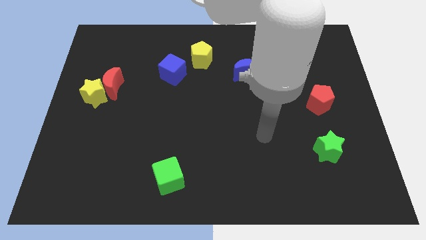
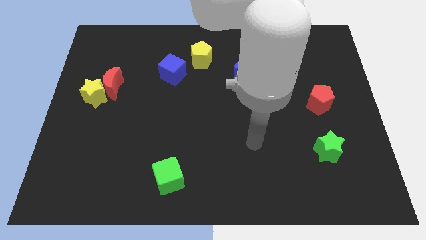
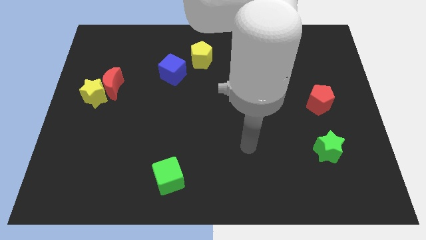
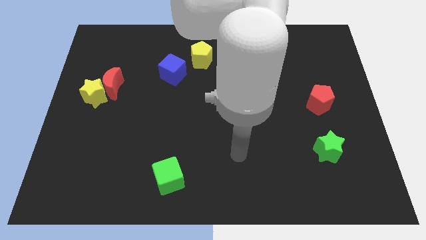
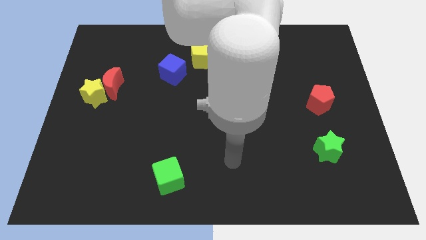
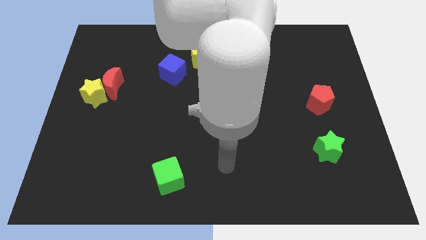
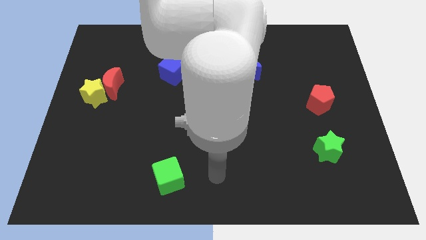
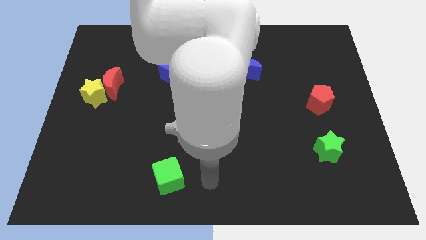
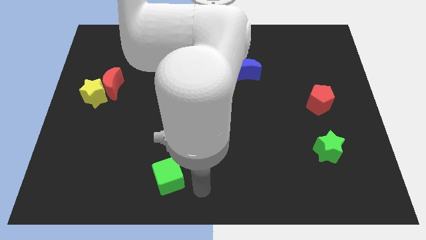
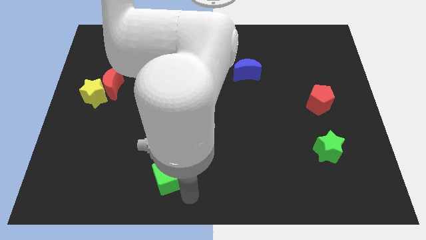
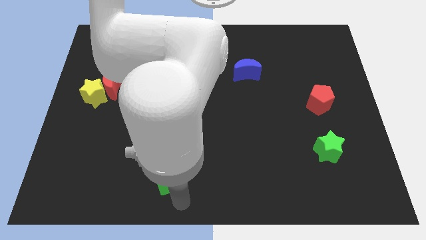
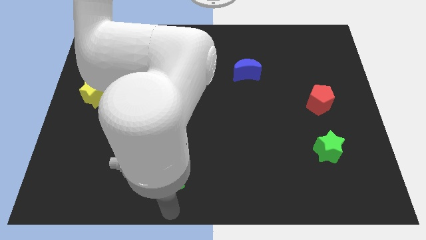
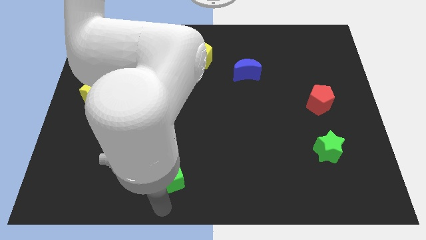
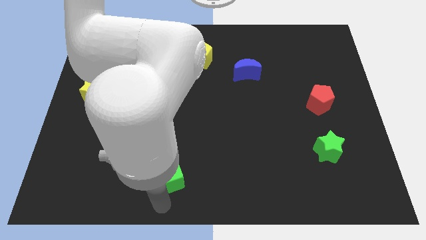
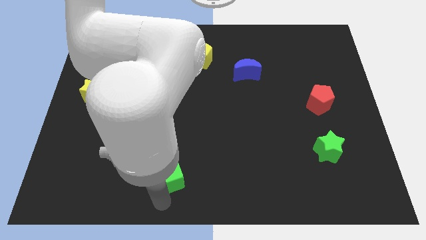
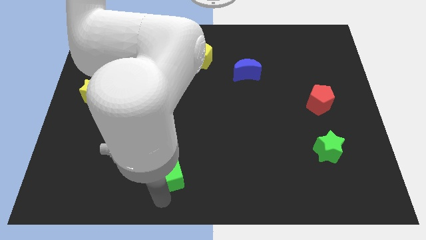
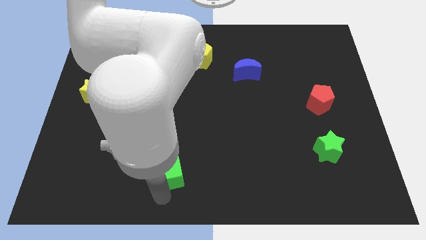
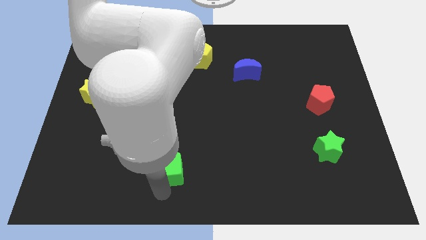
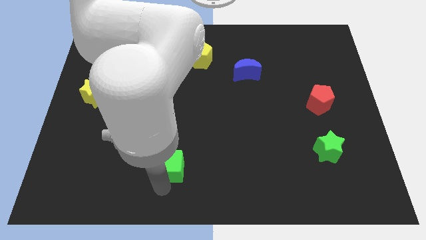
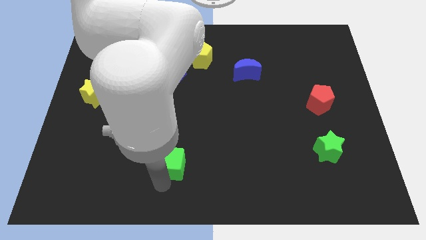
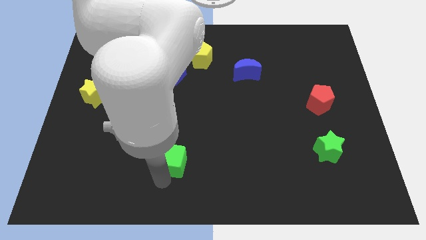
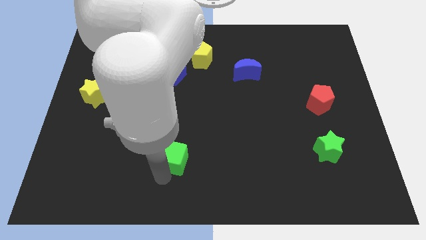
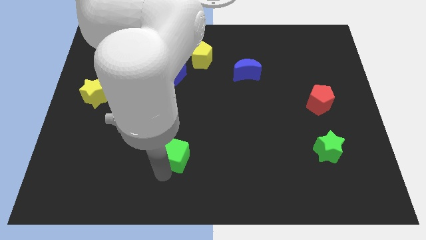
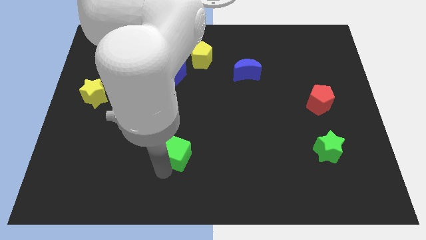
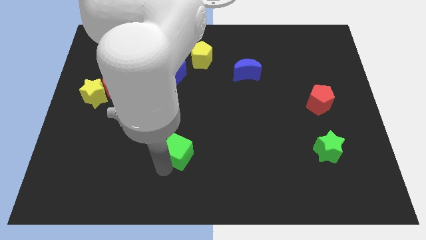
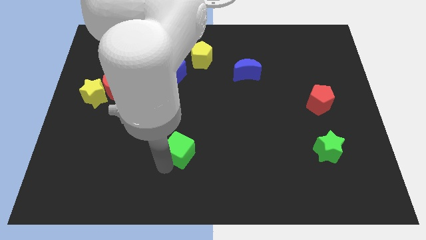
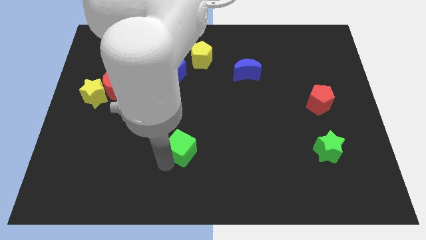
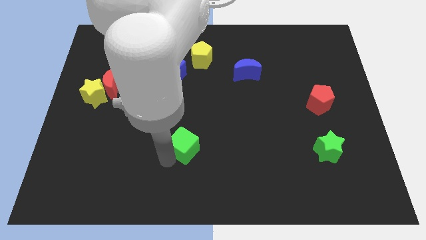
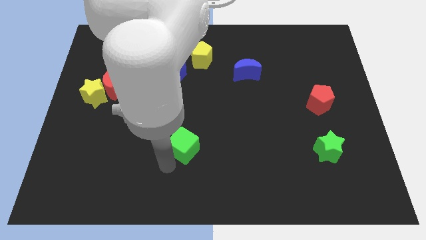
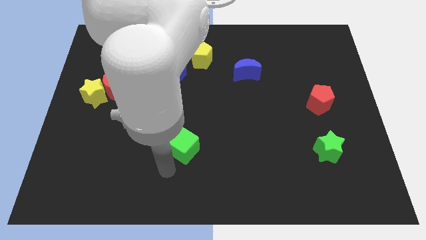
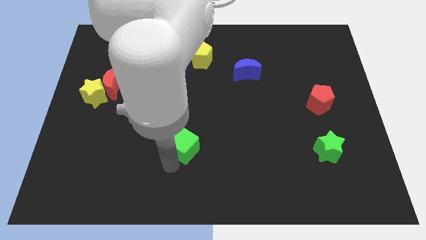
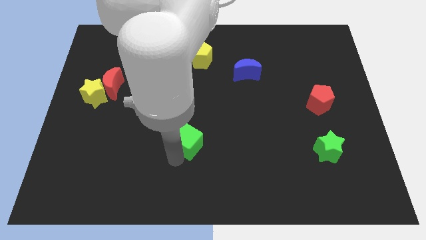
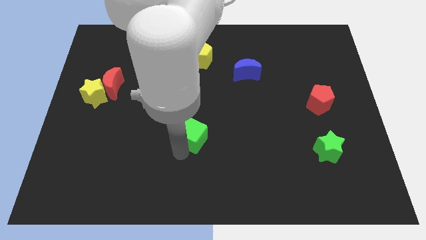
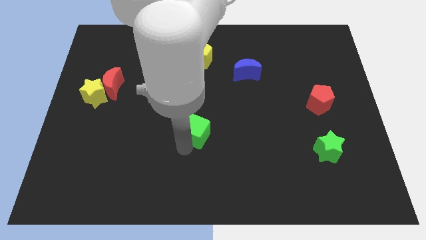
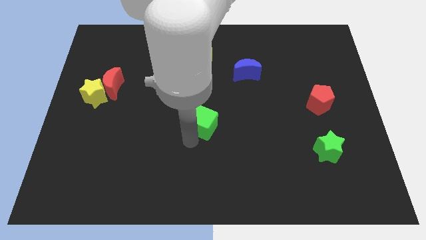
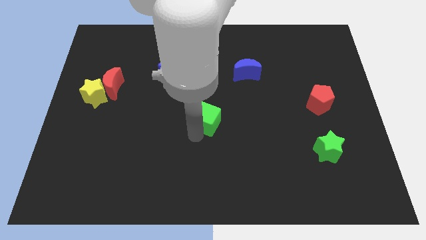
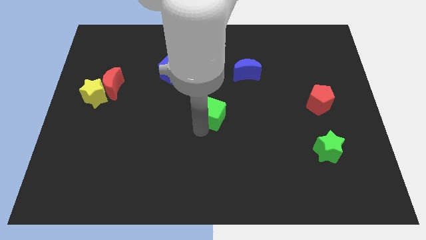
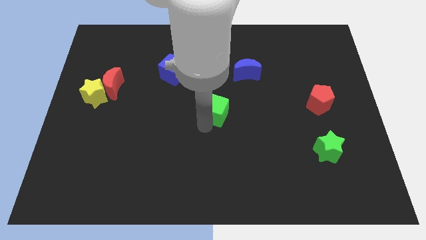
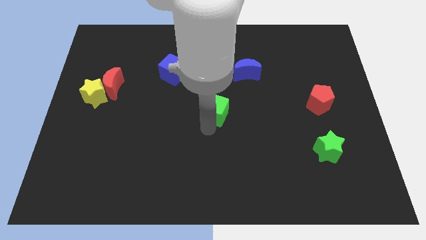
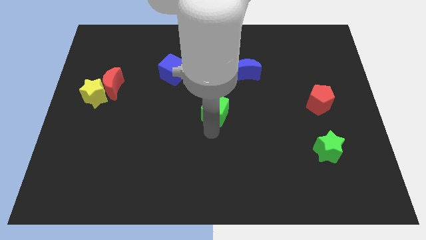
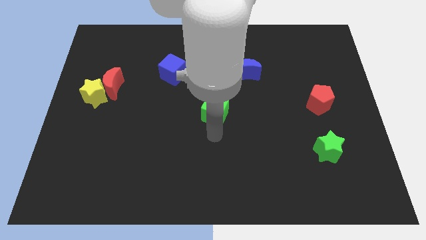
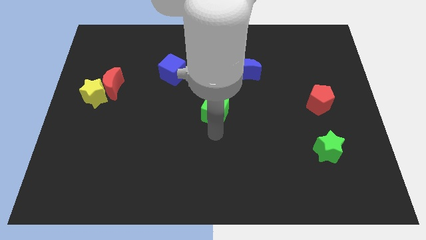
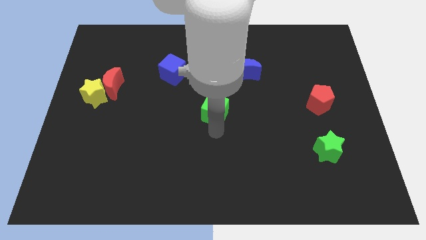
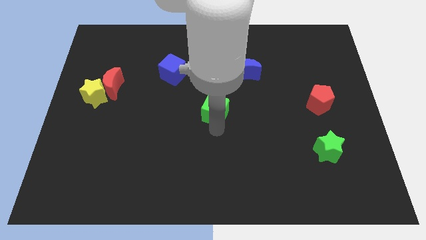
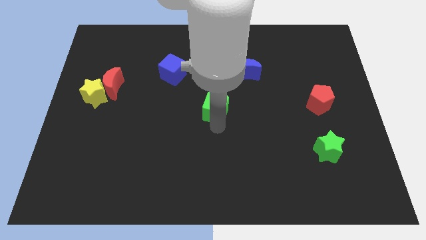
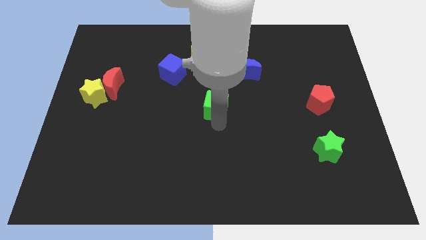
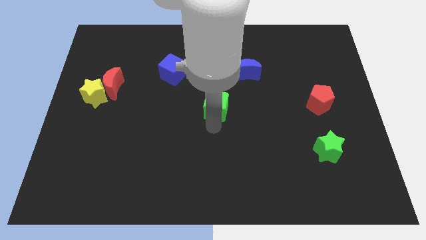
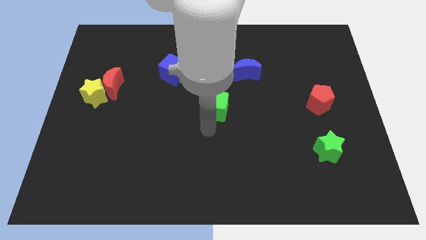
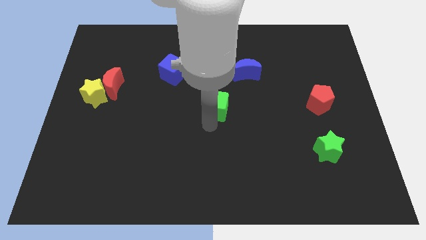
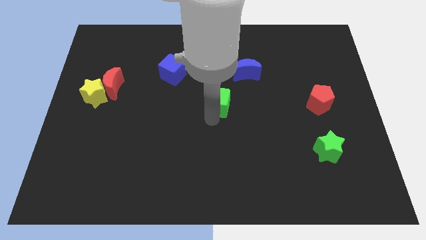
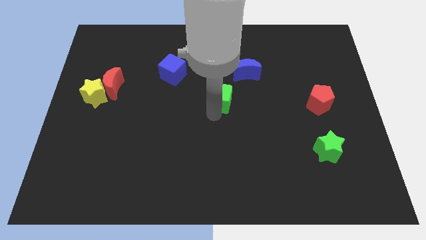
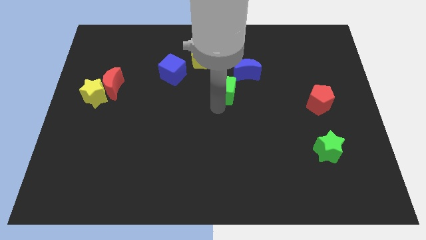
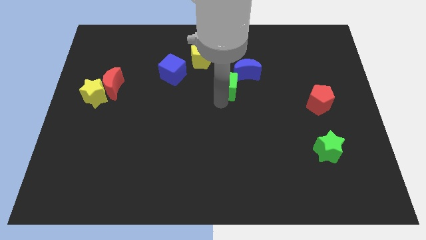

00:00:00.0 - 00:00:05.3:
slide the green cube diagonally down and to the right of the yellow pentagon

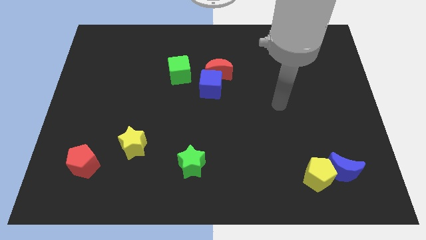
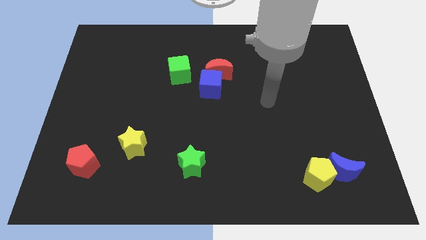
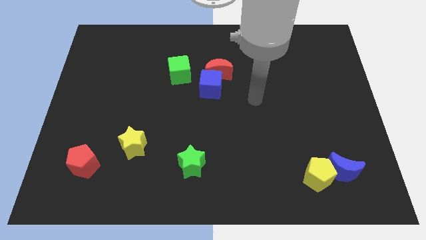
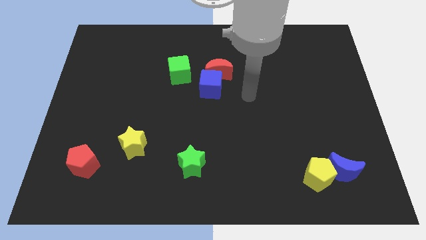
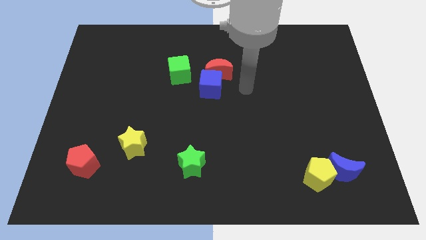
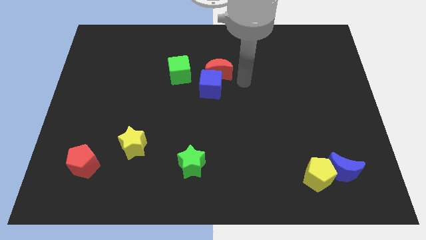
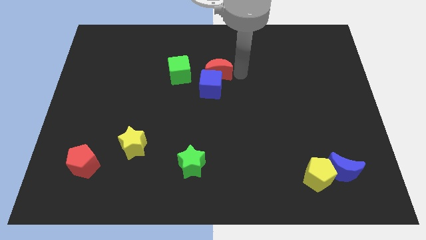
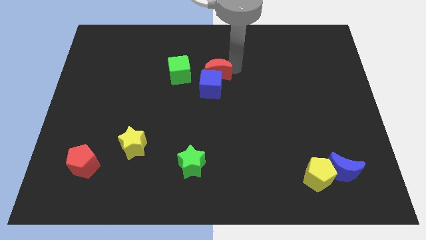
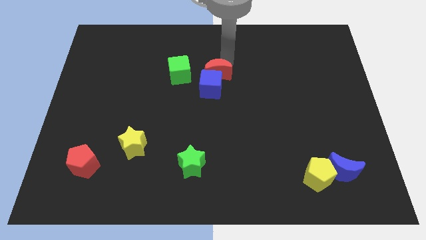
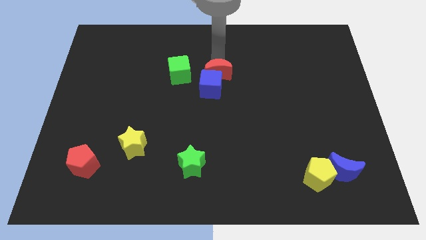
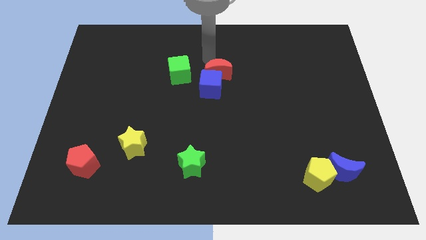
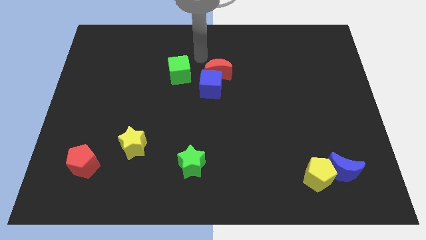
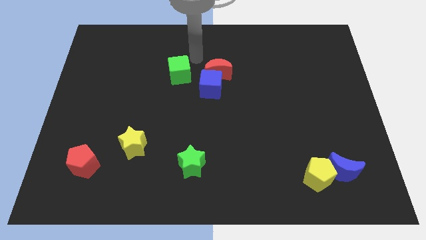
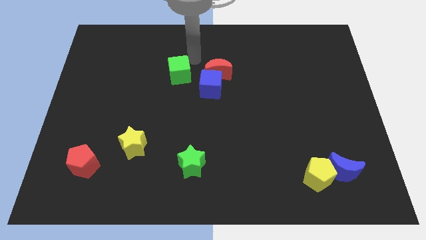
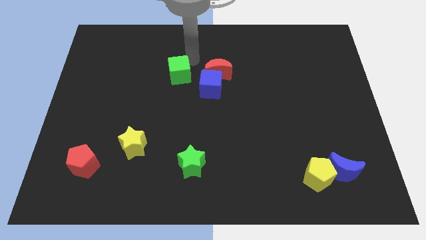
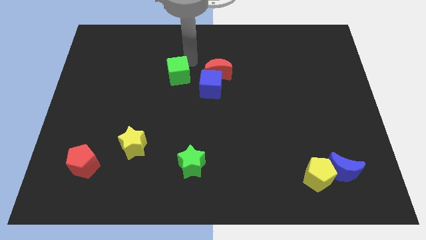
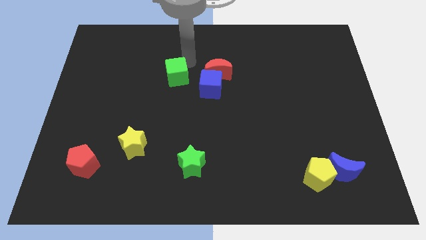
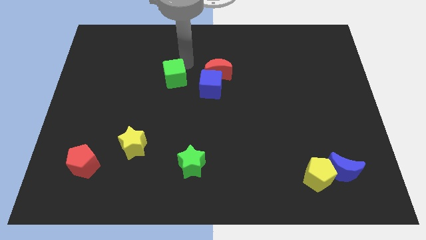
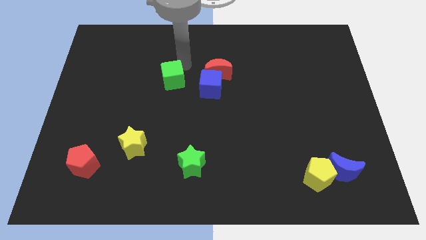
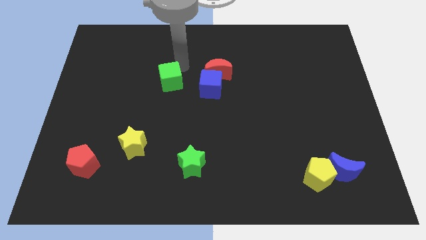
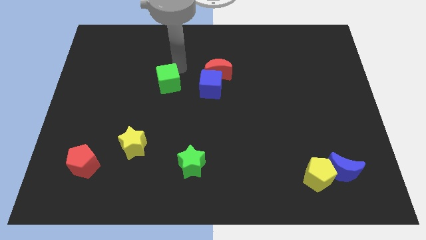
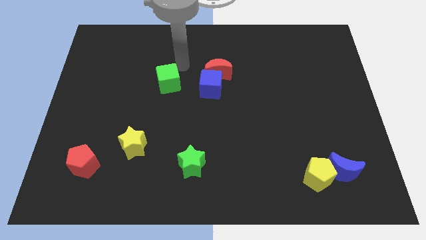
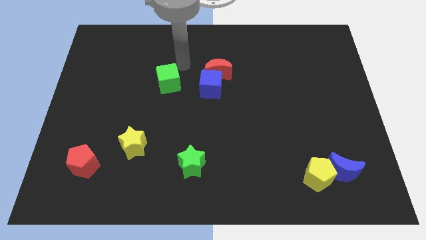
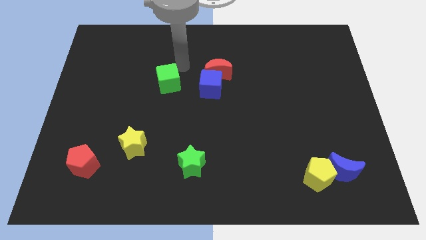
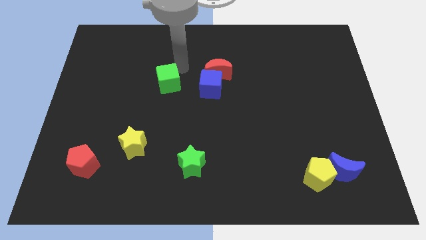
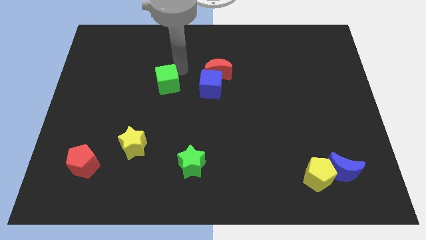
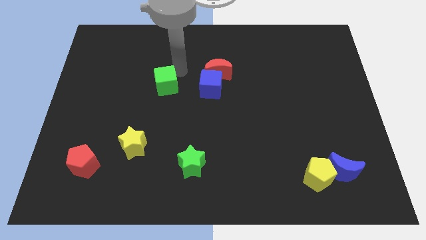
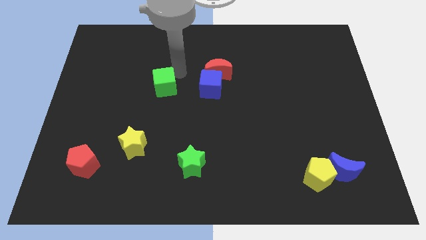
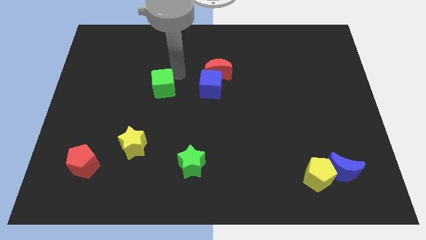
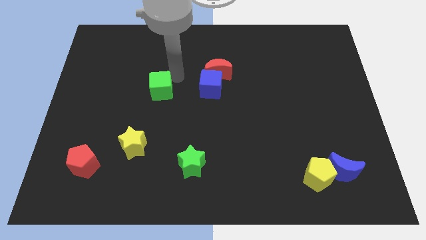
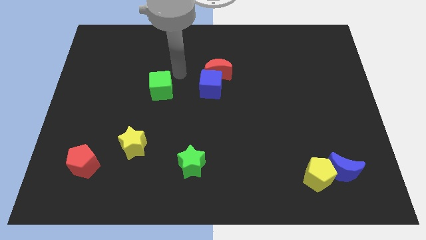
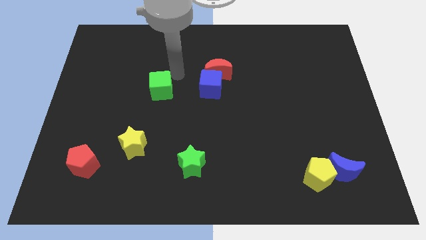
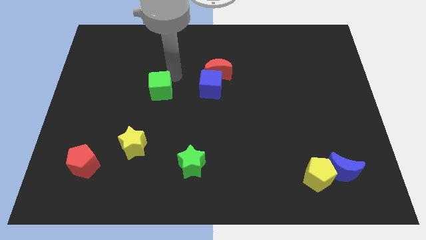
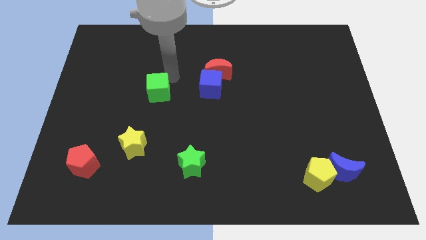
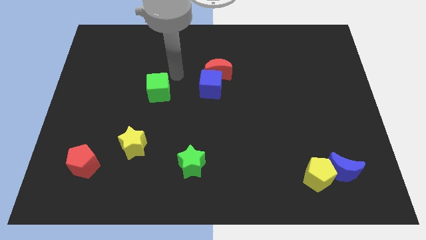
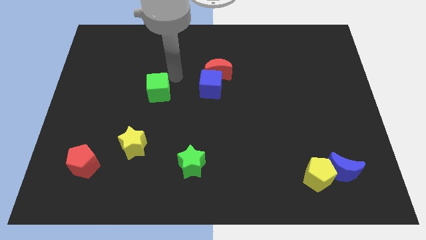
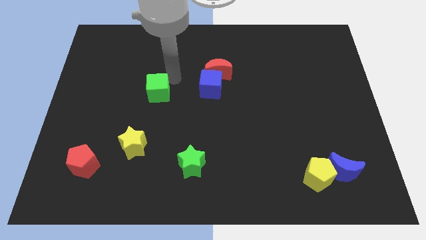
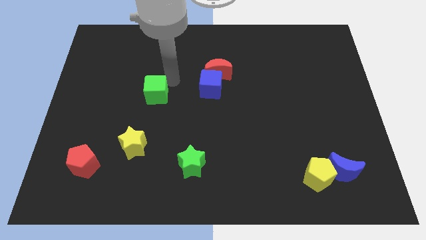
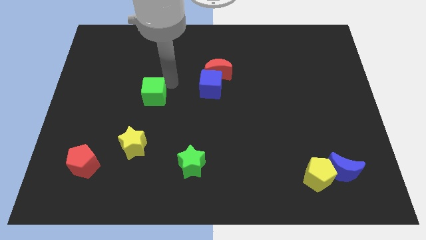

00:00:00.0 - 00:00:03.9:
put the green cube to the top side of the yellow star
